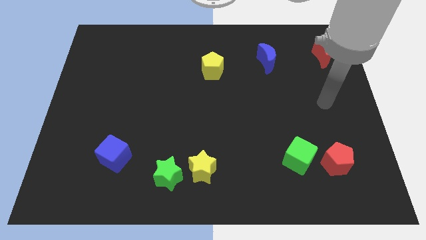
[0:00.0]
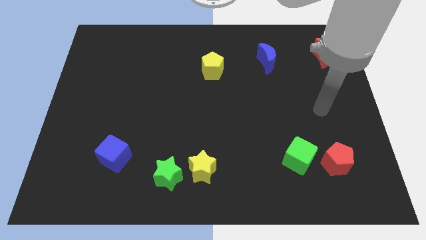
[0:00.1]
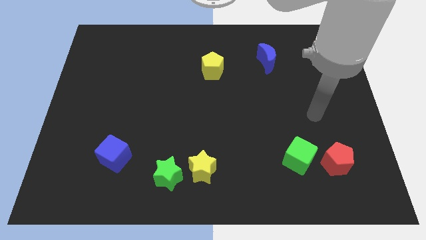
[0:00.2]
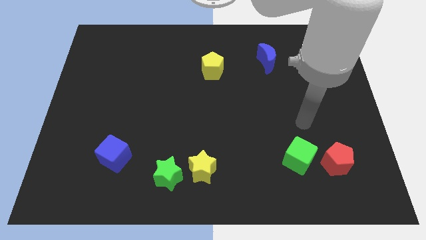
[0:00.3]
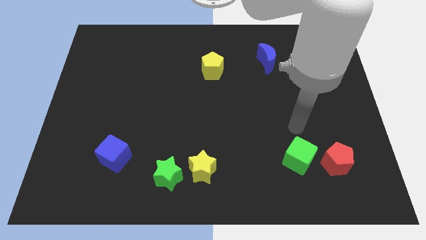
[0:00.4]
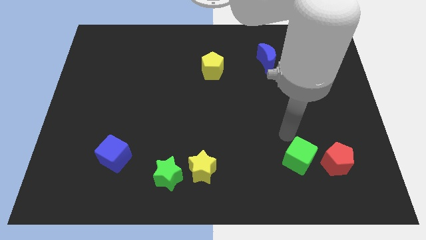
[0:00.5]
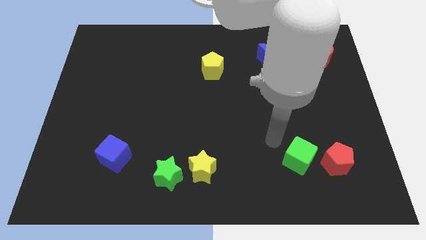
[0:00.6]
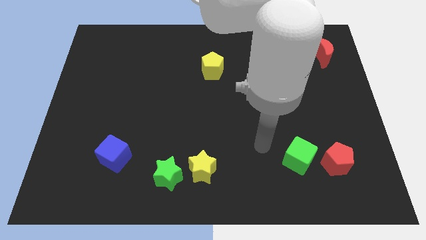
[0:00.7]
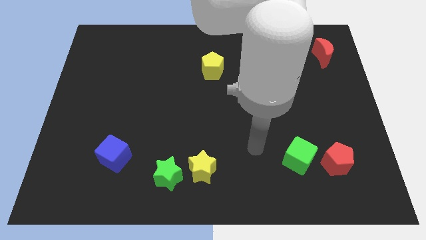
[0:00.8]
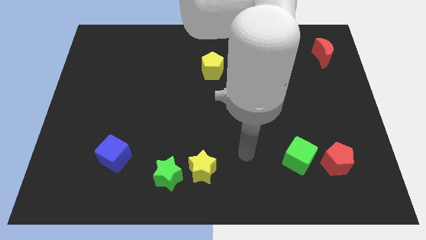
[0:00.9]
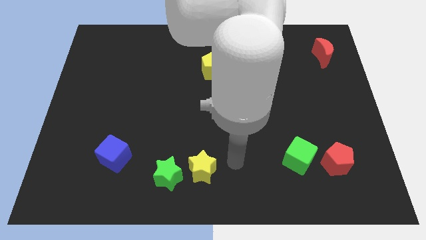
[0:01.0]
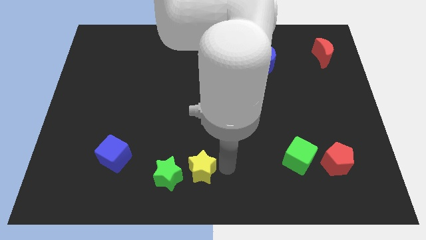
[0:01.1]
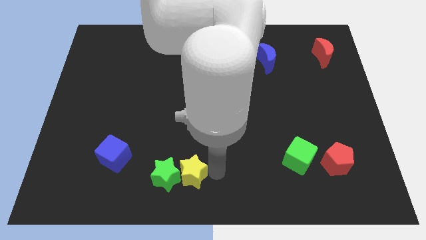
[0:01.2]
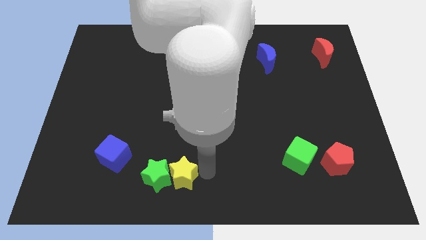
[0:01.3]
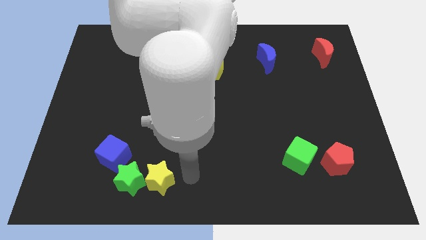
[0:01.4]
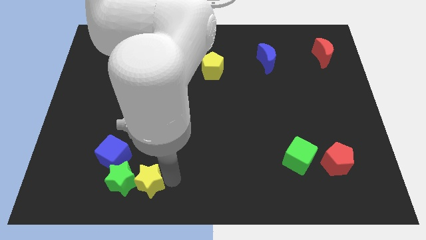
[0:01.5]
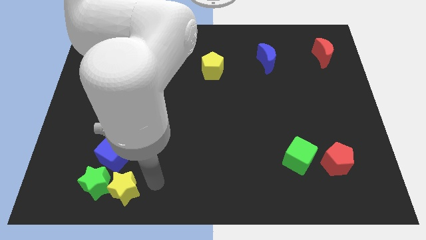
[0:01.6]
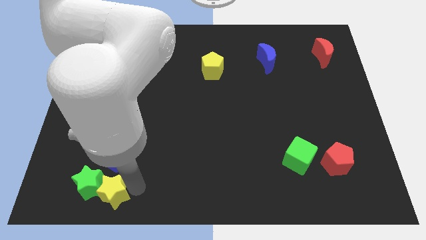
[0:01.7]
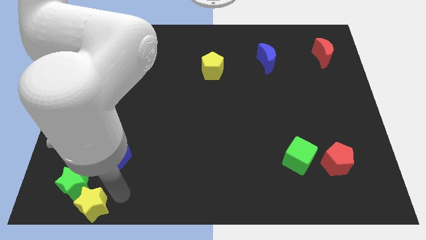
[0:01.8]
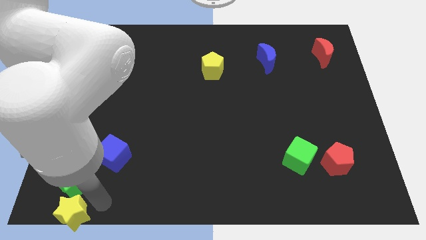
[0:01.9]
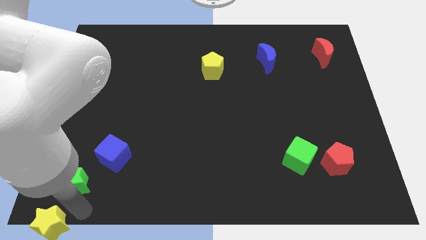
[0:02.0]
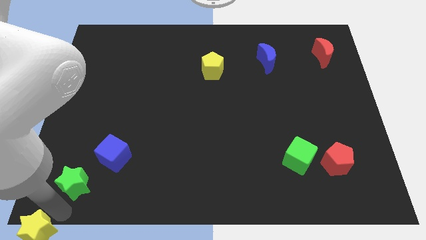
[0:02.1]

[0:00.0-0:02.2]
separate the green star from the yellow star

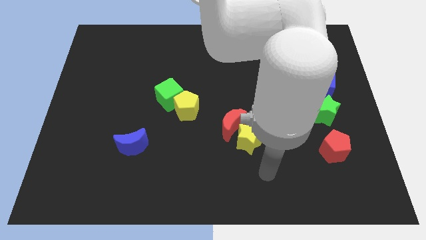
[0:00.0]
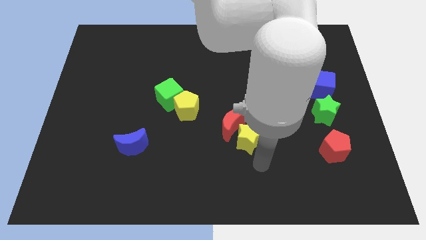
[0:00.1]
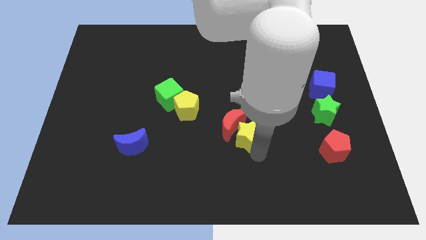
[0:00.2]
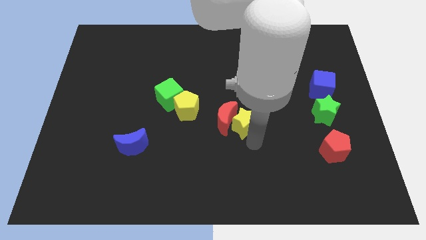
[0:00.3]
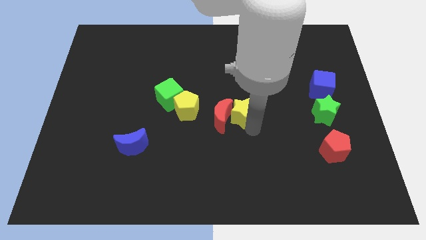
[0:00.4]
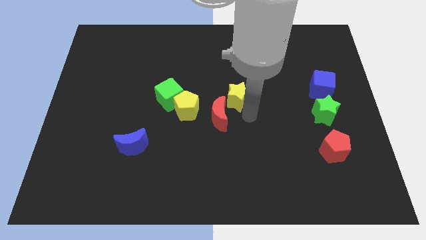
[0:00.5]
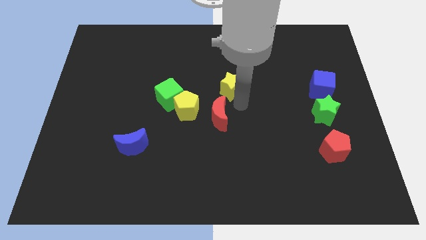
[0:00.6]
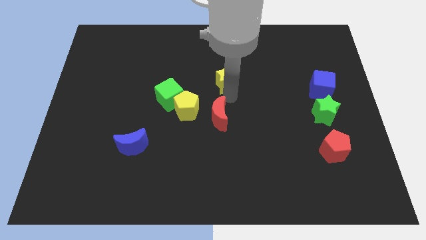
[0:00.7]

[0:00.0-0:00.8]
move the red moon away from the yellow star

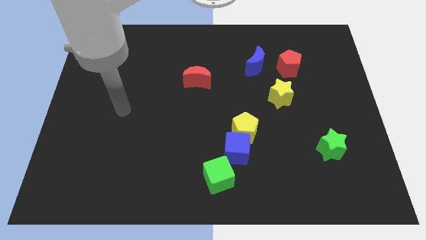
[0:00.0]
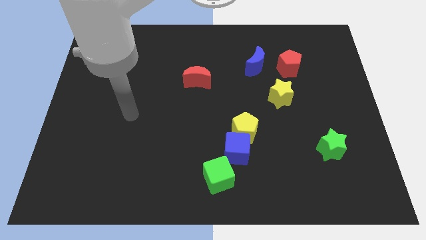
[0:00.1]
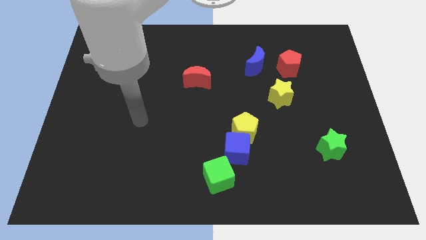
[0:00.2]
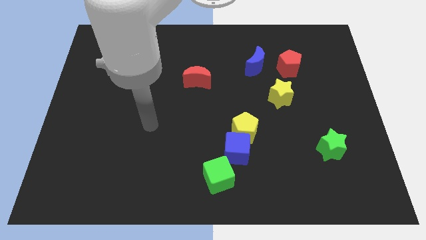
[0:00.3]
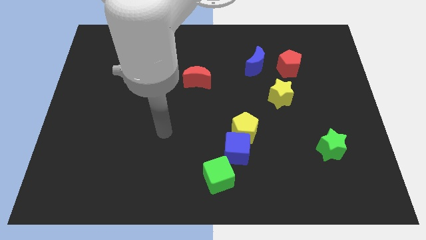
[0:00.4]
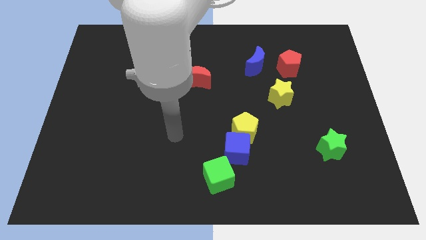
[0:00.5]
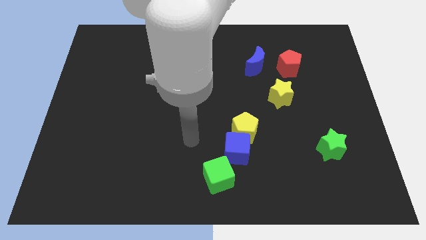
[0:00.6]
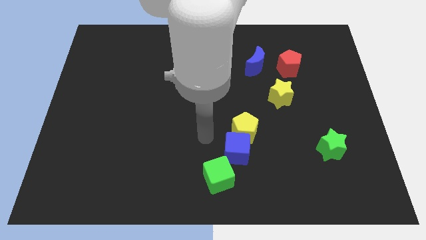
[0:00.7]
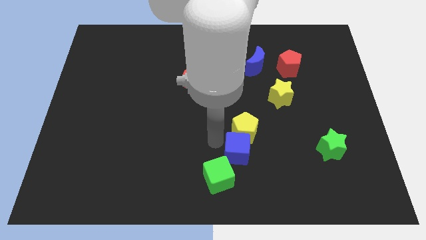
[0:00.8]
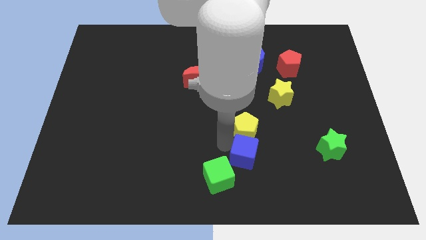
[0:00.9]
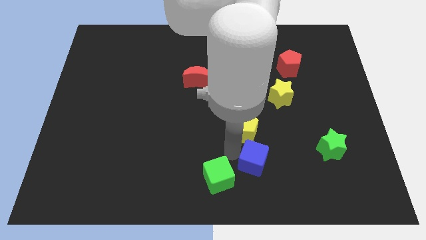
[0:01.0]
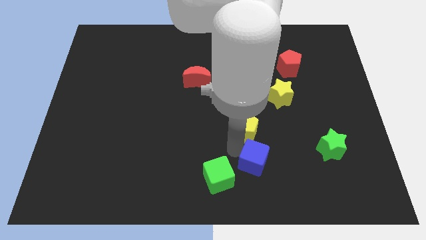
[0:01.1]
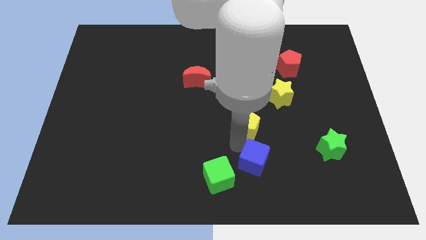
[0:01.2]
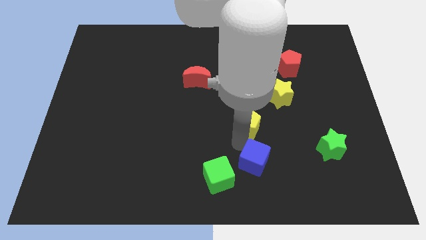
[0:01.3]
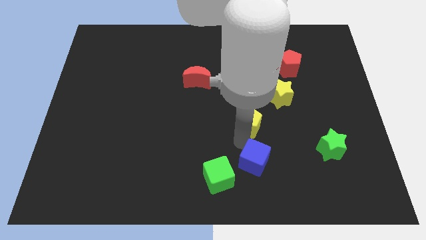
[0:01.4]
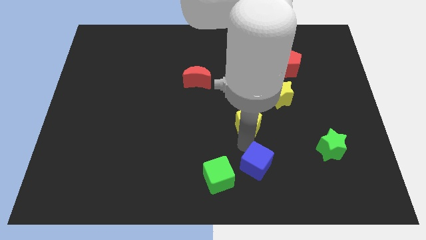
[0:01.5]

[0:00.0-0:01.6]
move the yellow pentagon away from the blue cube

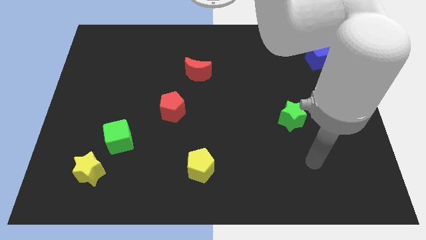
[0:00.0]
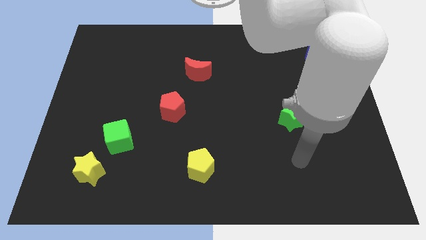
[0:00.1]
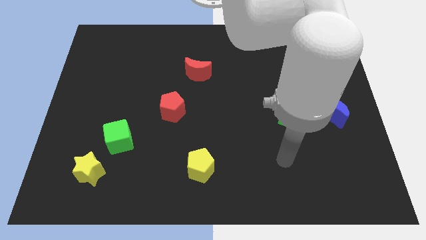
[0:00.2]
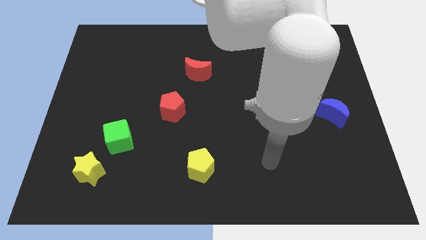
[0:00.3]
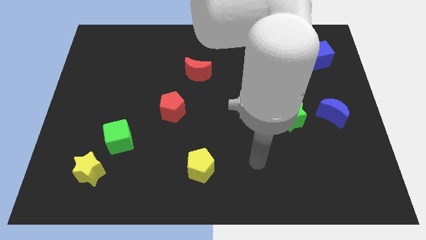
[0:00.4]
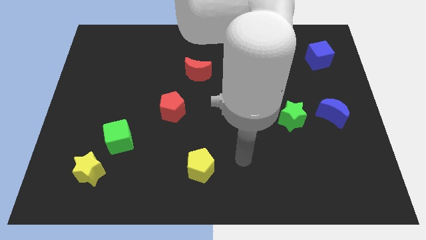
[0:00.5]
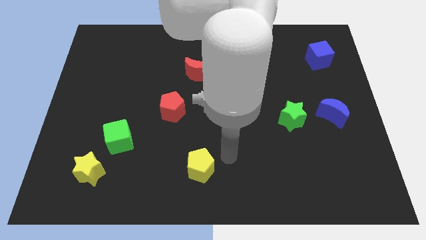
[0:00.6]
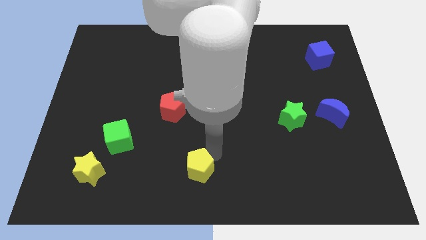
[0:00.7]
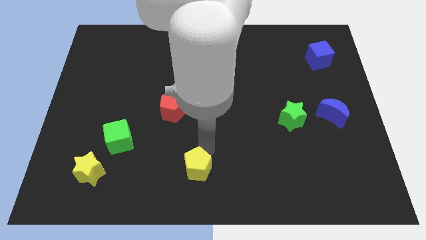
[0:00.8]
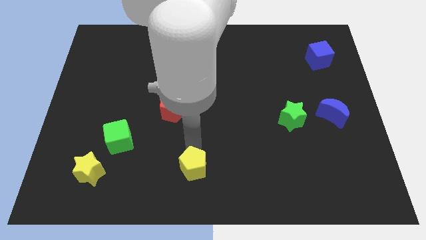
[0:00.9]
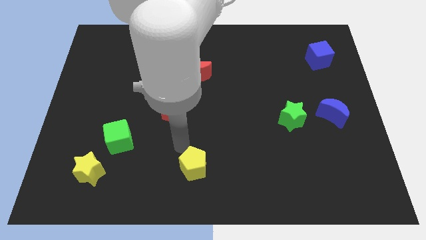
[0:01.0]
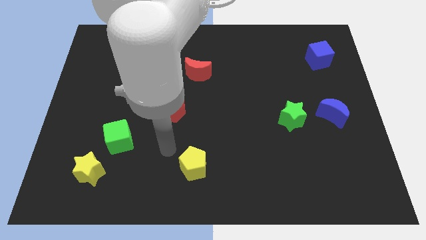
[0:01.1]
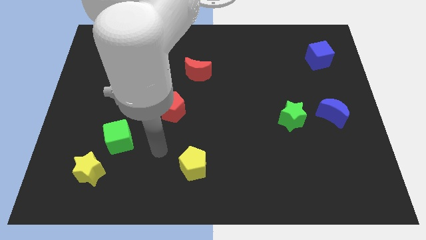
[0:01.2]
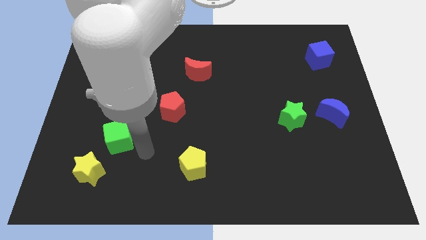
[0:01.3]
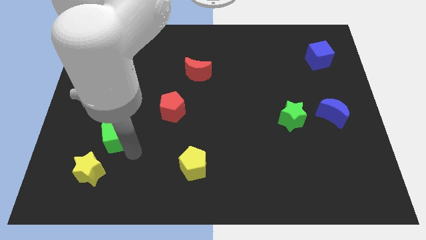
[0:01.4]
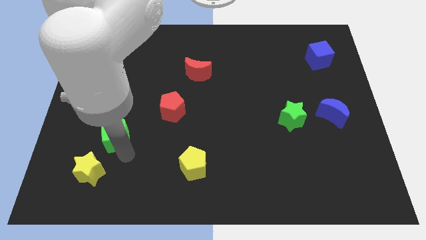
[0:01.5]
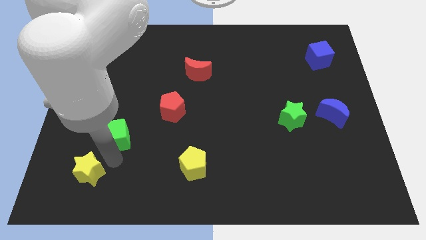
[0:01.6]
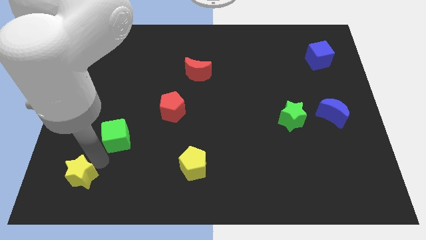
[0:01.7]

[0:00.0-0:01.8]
separate the green cube from the yellow star

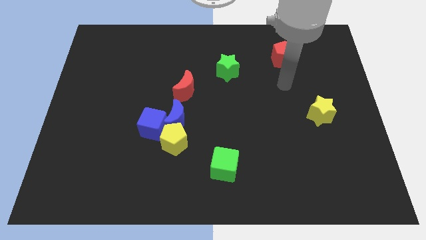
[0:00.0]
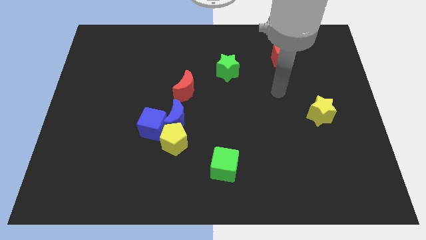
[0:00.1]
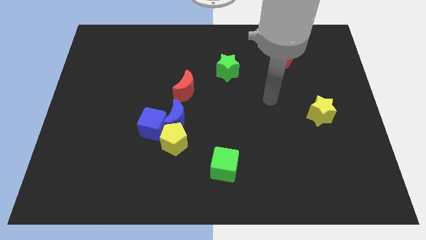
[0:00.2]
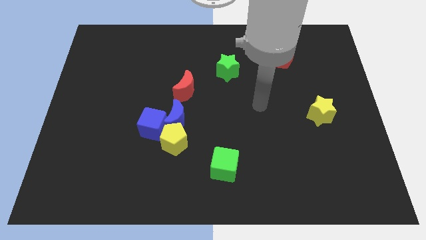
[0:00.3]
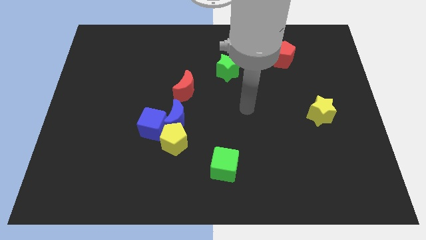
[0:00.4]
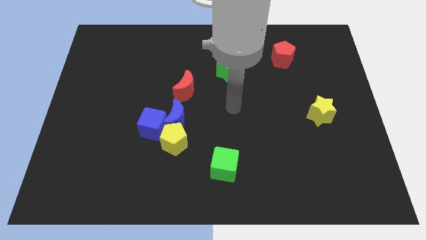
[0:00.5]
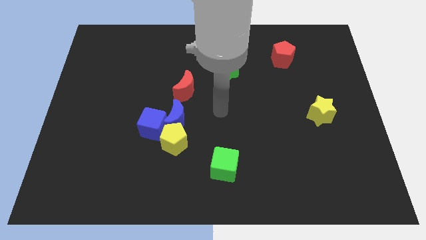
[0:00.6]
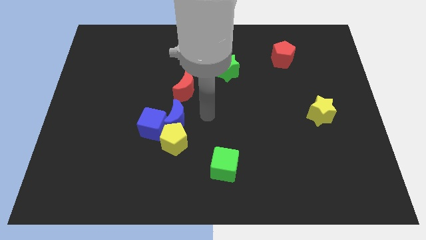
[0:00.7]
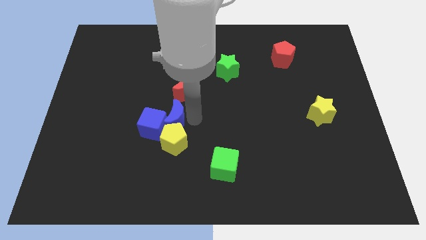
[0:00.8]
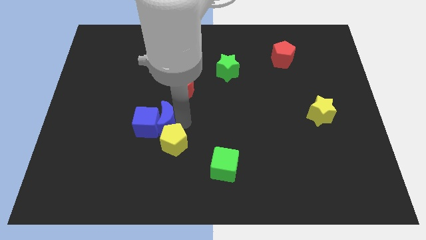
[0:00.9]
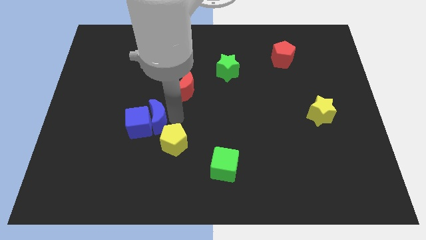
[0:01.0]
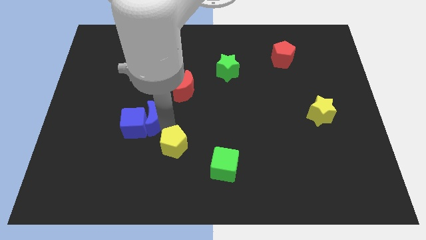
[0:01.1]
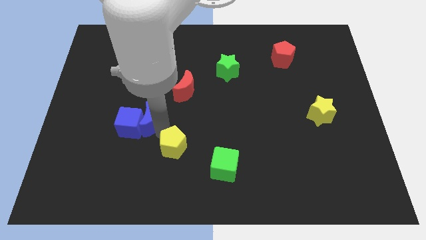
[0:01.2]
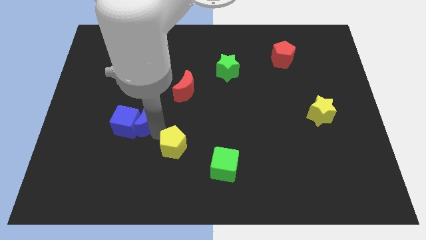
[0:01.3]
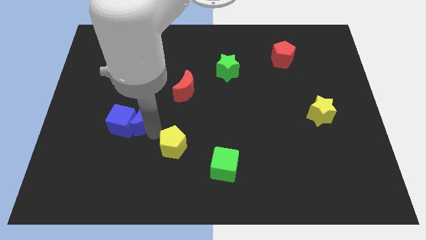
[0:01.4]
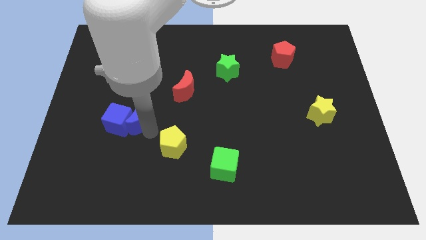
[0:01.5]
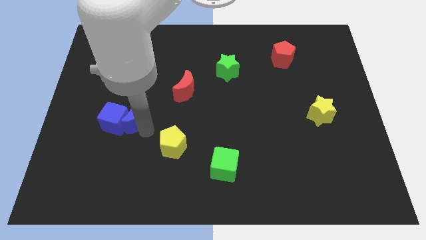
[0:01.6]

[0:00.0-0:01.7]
separate the blue cube from the blue moon and yellow pentagon

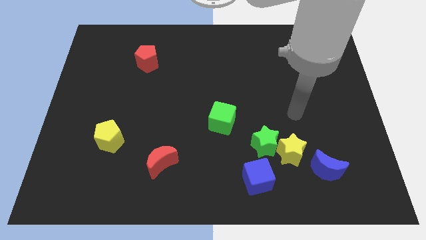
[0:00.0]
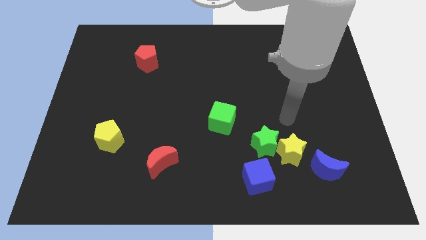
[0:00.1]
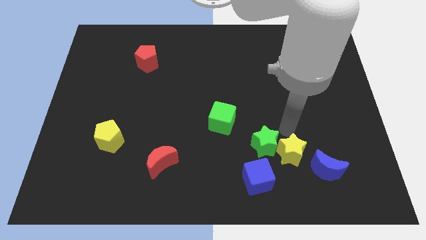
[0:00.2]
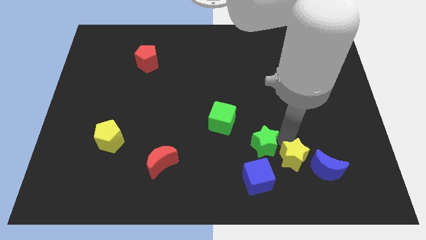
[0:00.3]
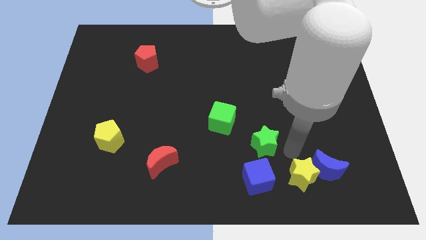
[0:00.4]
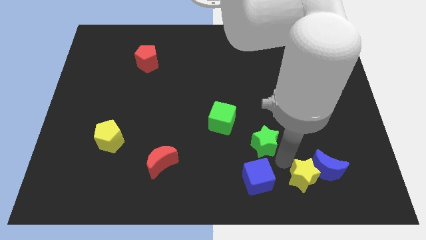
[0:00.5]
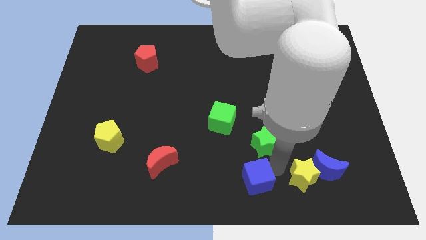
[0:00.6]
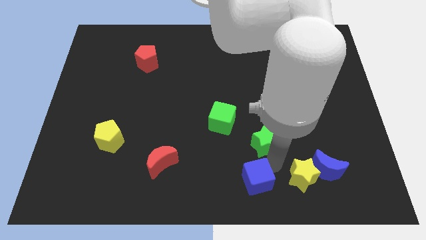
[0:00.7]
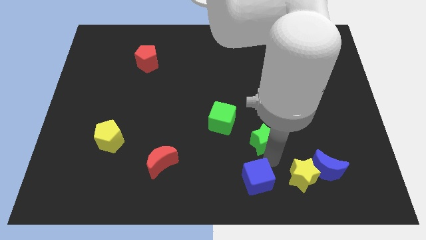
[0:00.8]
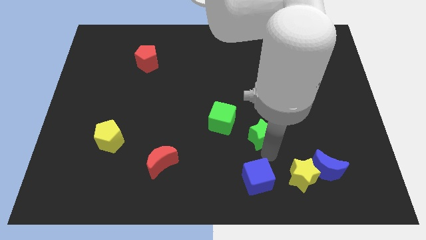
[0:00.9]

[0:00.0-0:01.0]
separate the green star from the yellow star and blue cube

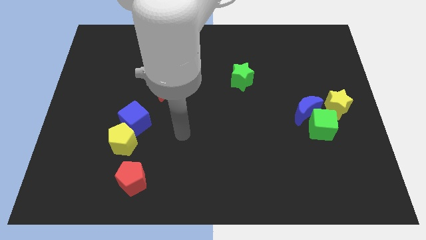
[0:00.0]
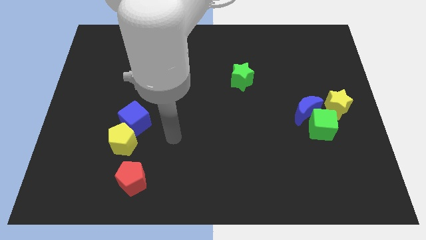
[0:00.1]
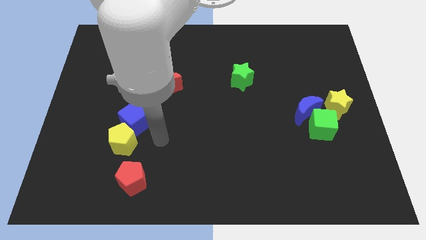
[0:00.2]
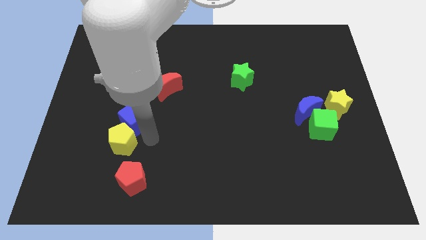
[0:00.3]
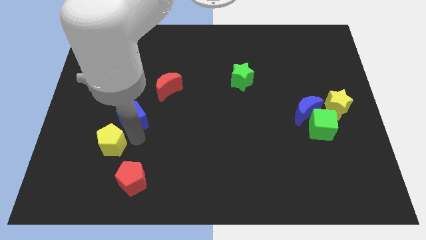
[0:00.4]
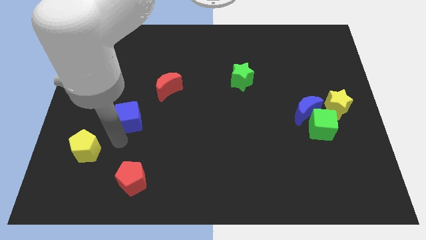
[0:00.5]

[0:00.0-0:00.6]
separate the blue cube from the yellow pentagon
